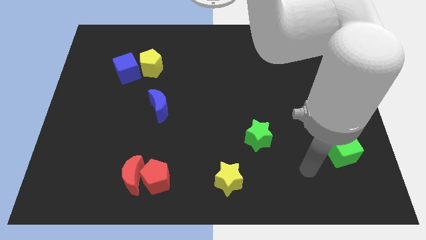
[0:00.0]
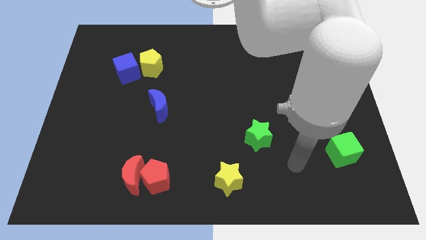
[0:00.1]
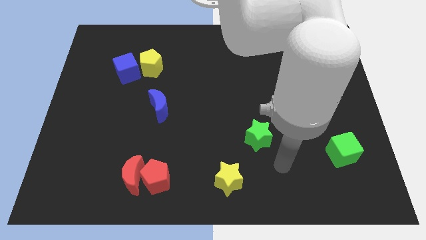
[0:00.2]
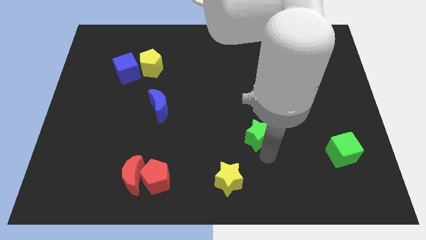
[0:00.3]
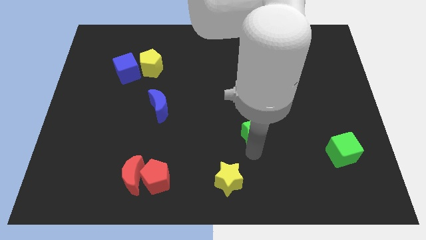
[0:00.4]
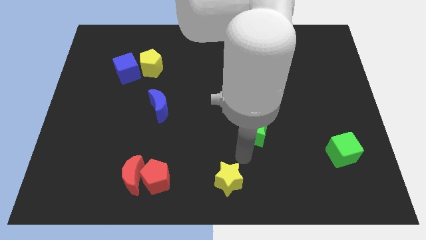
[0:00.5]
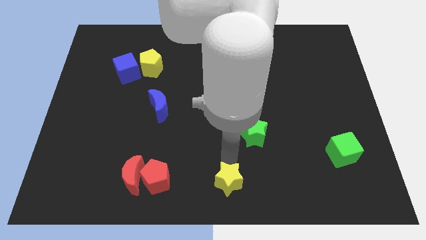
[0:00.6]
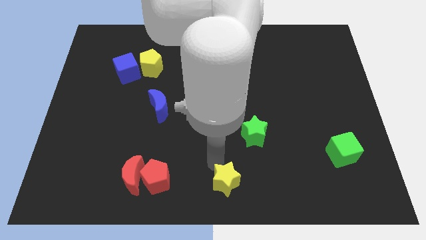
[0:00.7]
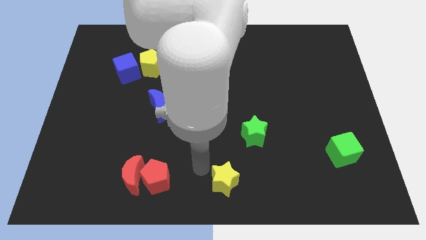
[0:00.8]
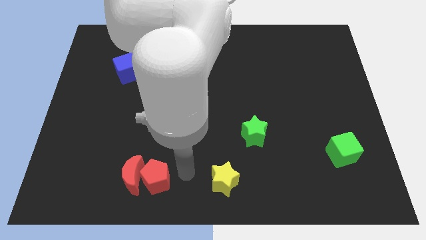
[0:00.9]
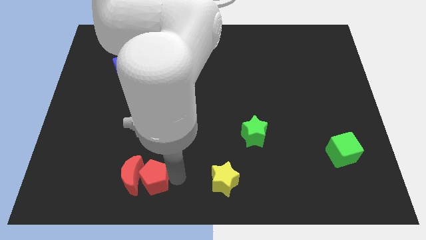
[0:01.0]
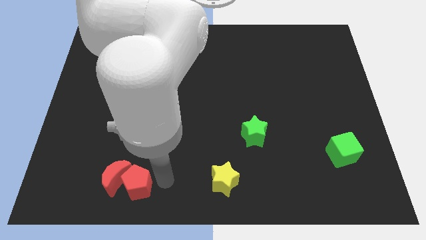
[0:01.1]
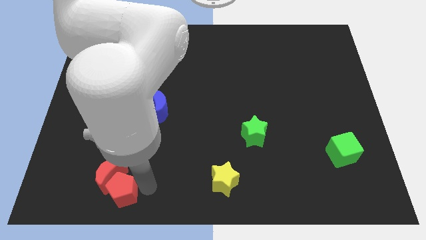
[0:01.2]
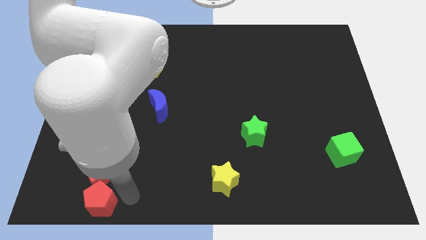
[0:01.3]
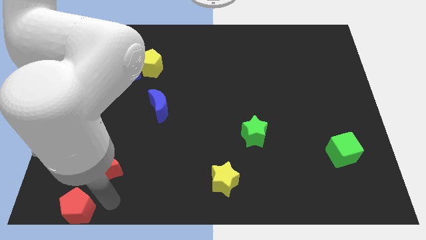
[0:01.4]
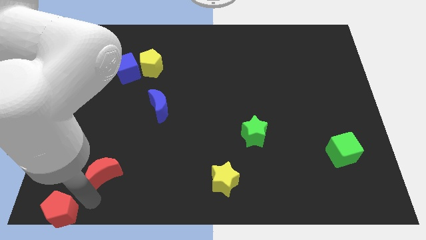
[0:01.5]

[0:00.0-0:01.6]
separate the red moon from the red pentagon

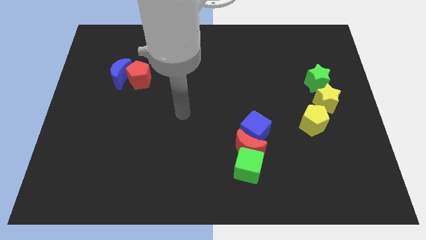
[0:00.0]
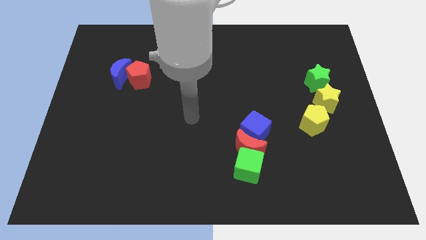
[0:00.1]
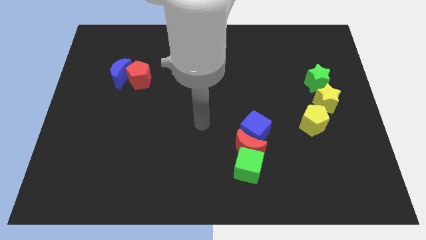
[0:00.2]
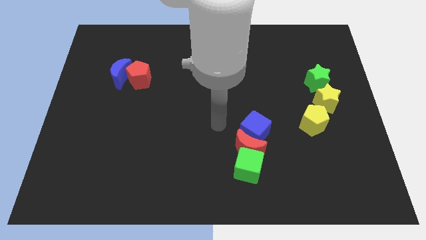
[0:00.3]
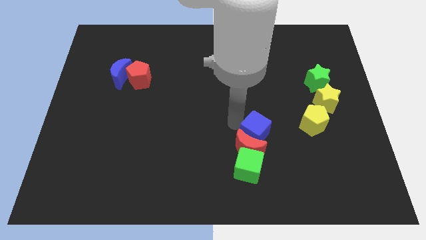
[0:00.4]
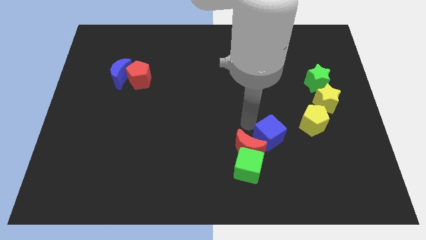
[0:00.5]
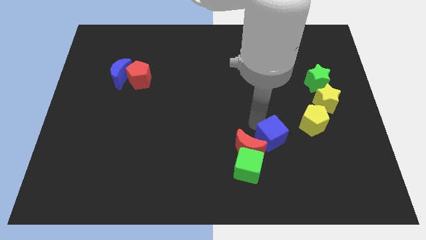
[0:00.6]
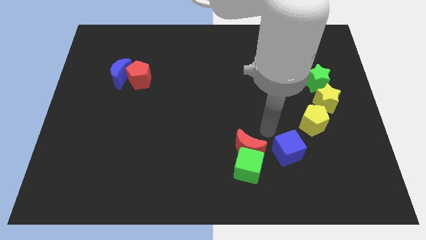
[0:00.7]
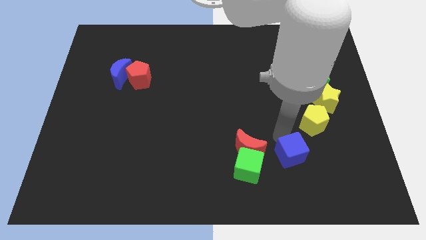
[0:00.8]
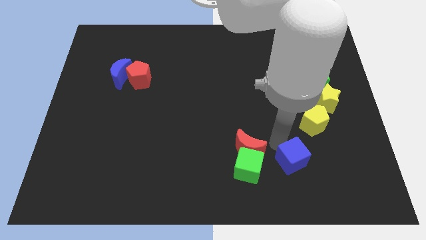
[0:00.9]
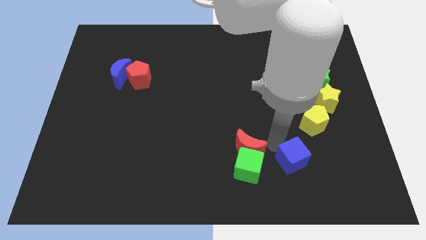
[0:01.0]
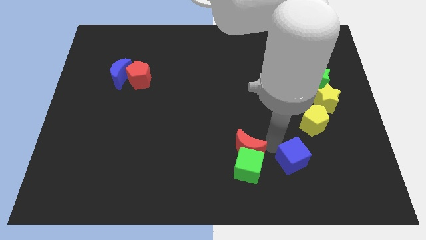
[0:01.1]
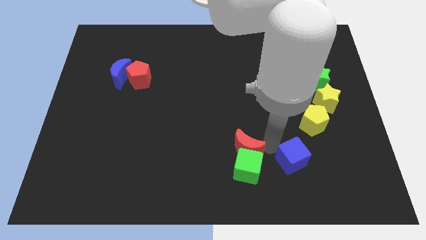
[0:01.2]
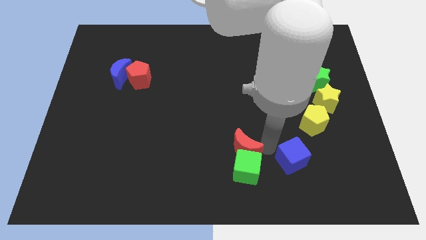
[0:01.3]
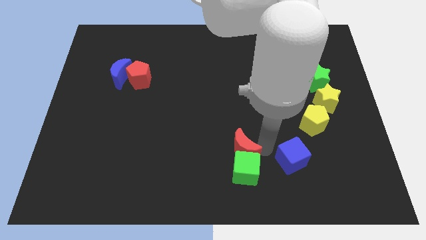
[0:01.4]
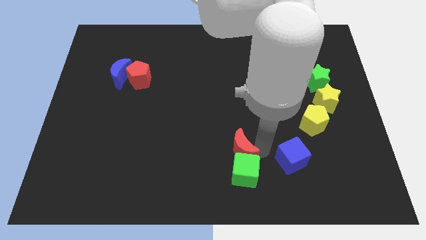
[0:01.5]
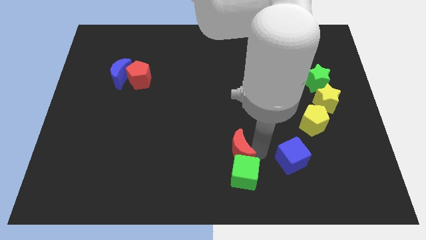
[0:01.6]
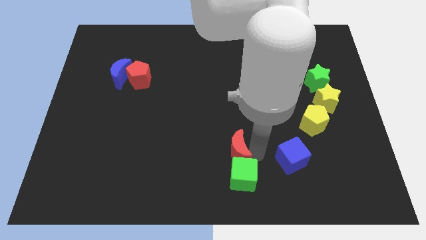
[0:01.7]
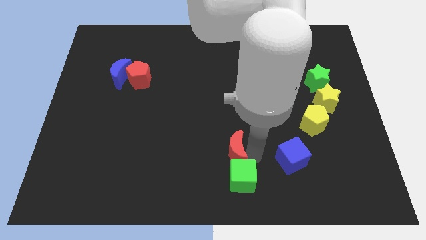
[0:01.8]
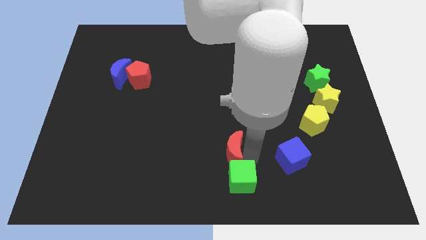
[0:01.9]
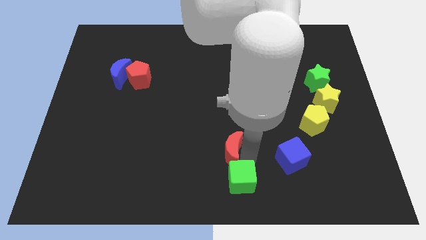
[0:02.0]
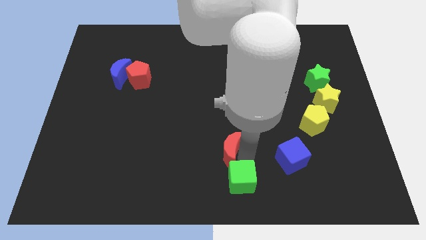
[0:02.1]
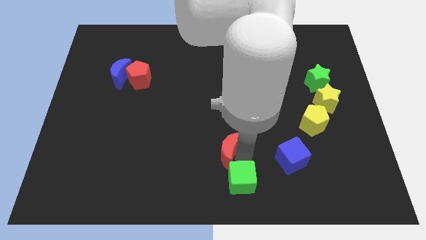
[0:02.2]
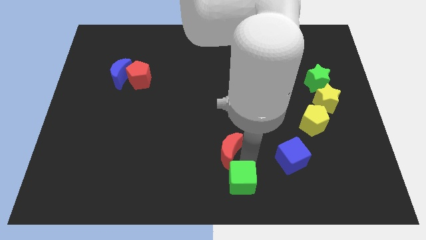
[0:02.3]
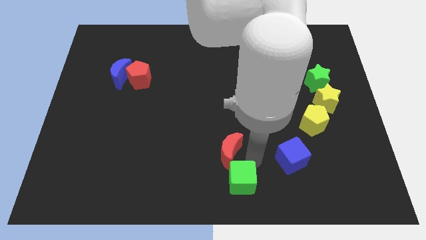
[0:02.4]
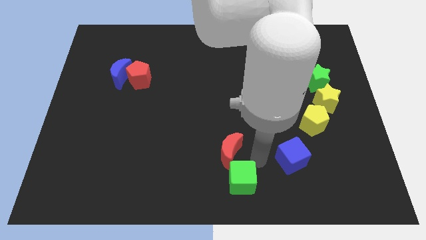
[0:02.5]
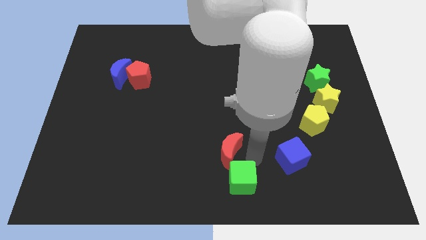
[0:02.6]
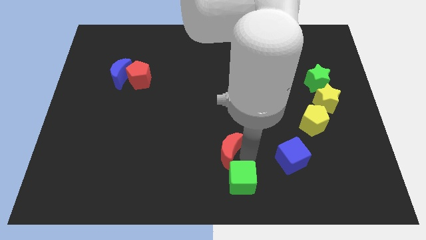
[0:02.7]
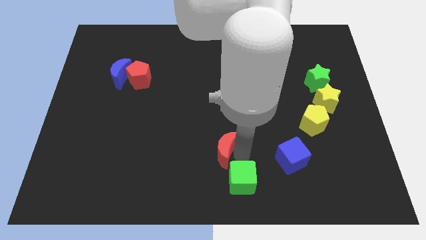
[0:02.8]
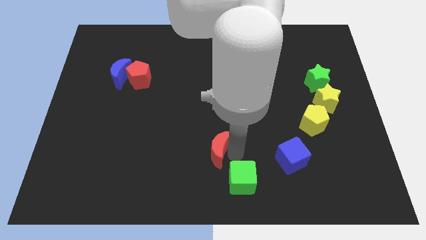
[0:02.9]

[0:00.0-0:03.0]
move the red moon away from the green cube and blue cube

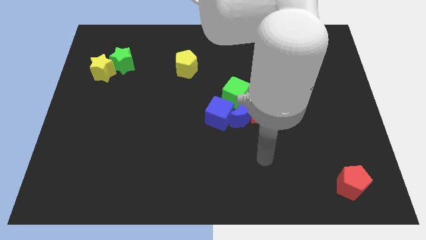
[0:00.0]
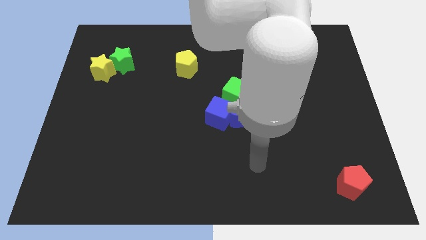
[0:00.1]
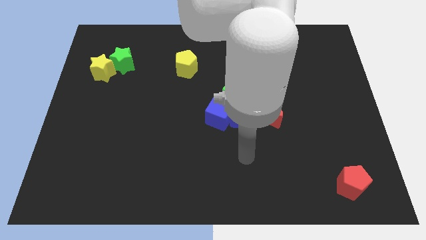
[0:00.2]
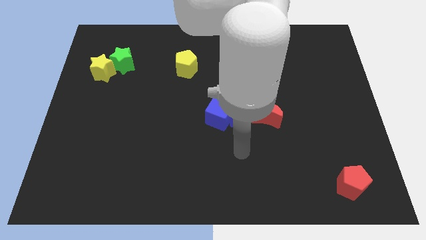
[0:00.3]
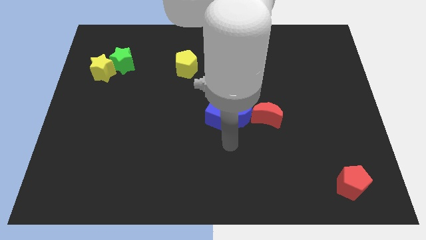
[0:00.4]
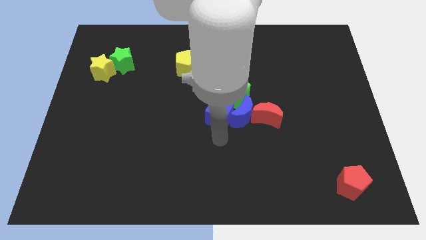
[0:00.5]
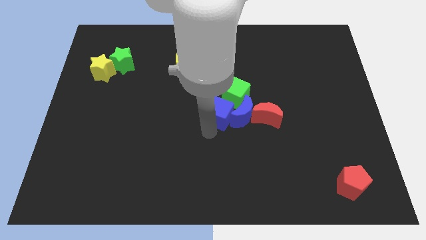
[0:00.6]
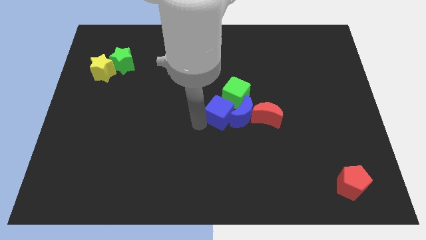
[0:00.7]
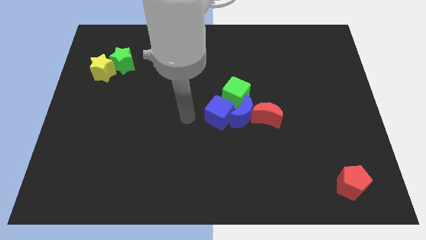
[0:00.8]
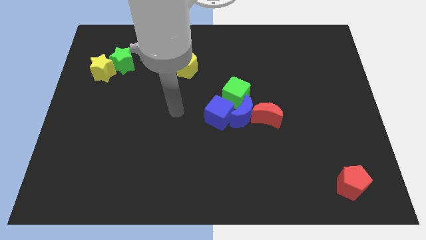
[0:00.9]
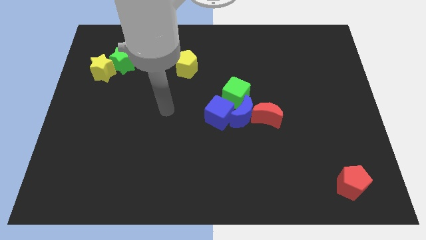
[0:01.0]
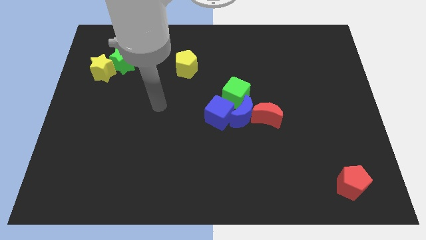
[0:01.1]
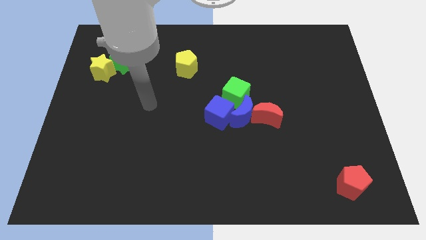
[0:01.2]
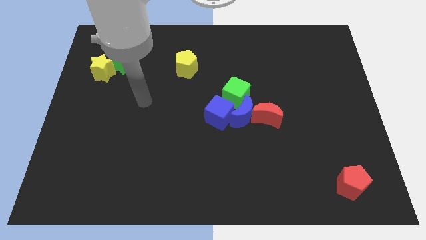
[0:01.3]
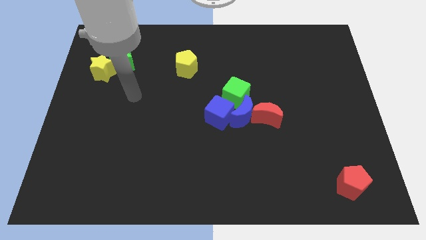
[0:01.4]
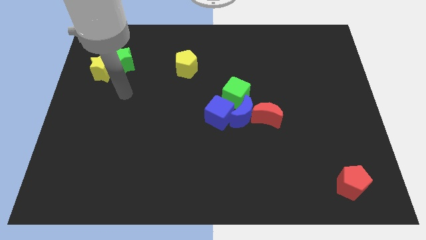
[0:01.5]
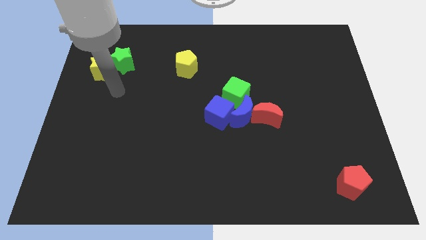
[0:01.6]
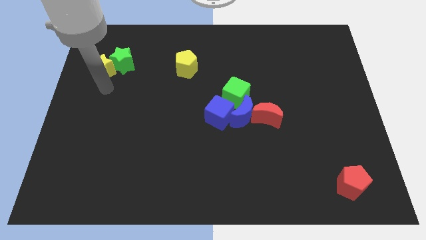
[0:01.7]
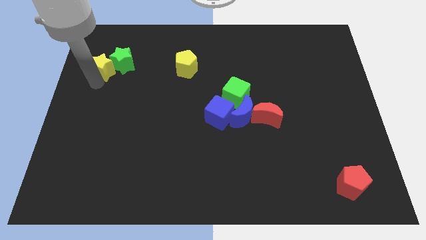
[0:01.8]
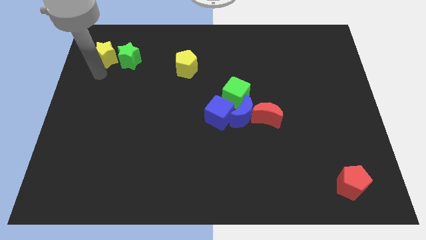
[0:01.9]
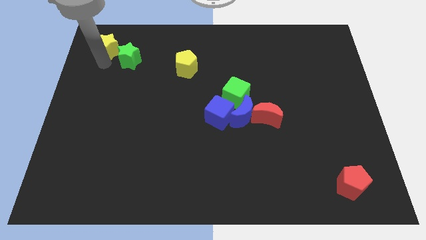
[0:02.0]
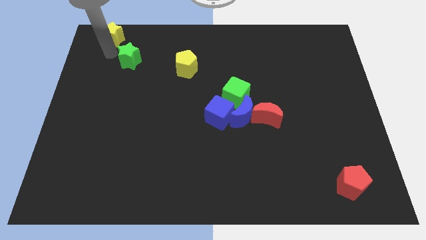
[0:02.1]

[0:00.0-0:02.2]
move the green star away from the yellow star

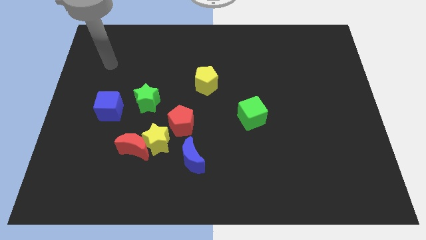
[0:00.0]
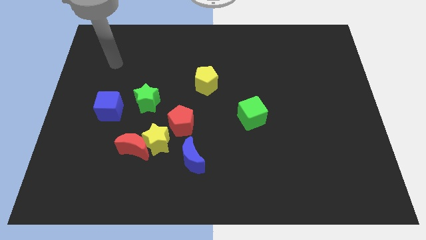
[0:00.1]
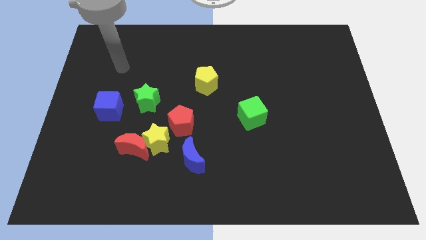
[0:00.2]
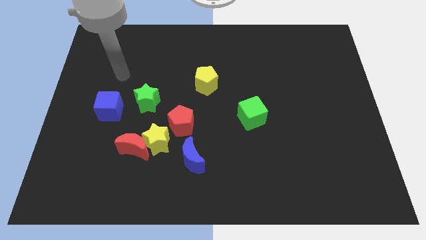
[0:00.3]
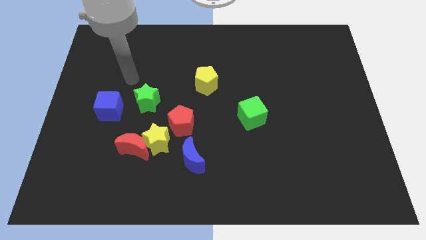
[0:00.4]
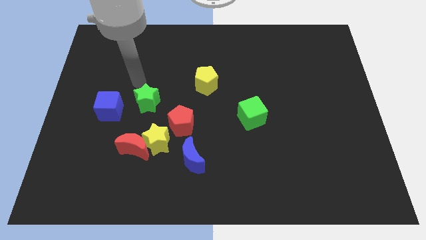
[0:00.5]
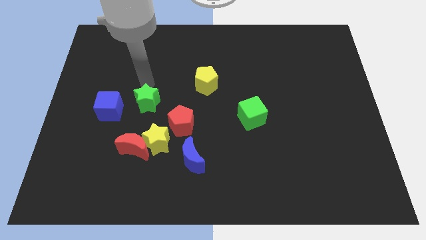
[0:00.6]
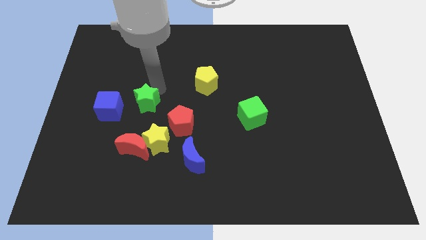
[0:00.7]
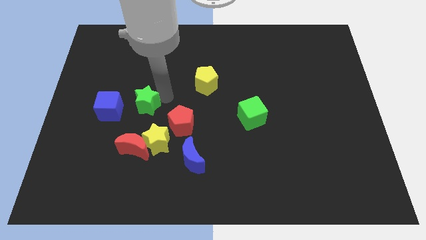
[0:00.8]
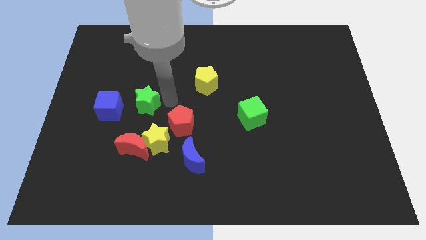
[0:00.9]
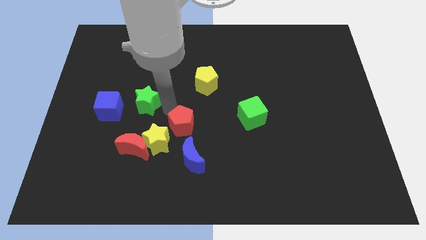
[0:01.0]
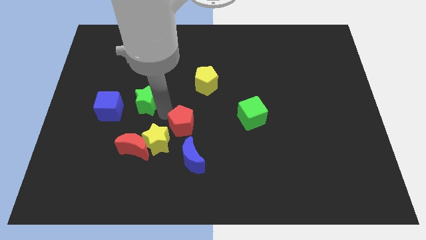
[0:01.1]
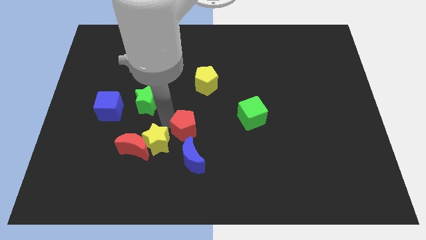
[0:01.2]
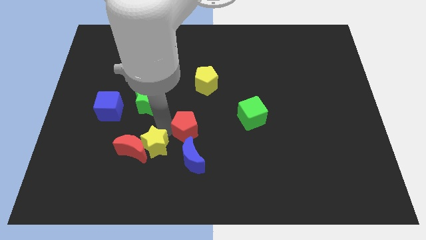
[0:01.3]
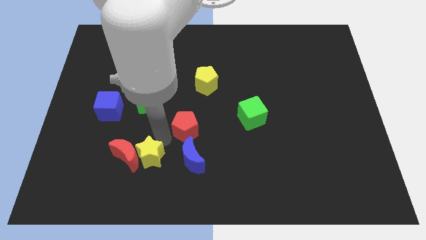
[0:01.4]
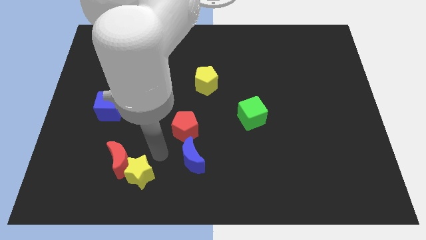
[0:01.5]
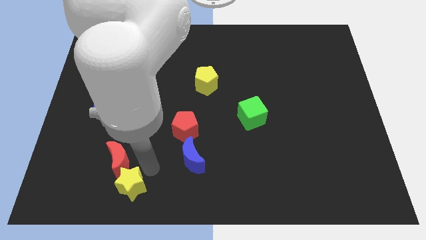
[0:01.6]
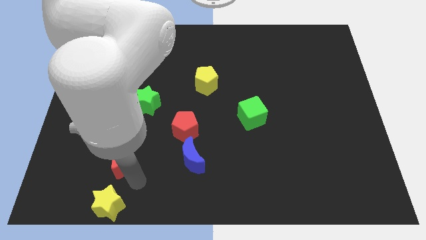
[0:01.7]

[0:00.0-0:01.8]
pull the red moon apart from the yellow star

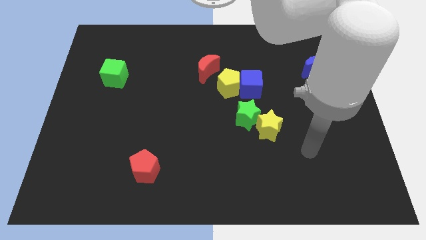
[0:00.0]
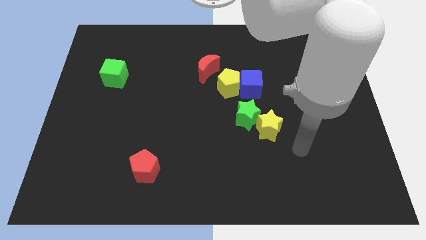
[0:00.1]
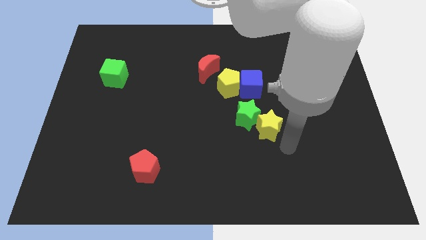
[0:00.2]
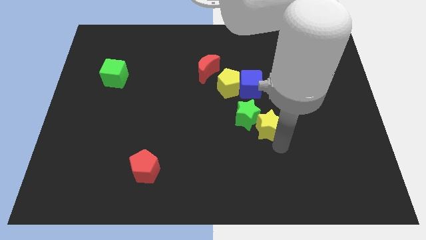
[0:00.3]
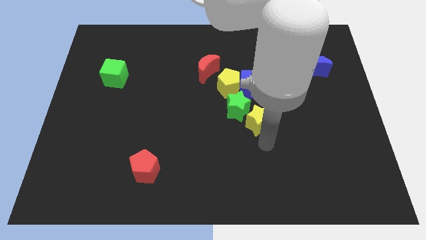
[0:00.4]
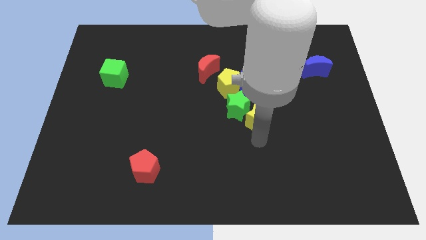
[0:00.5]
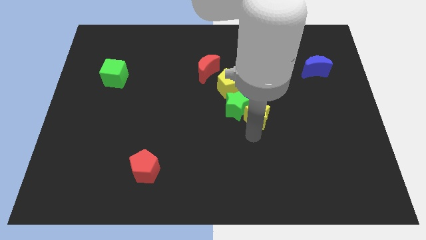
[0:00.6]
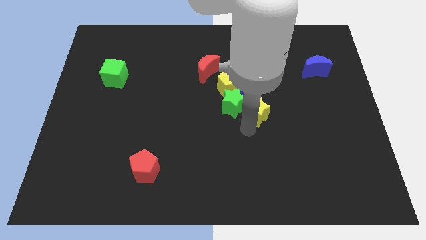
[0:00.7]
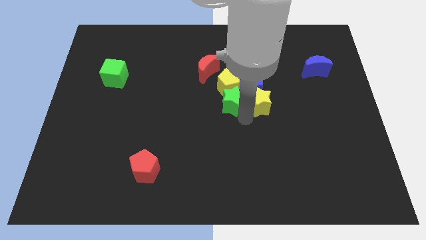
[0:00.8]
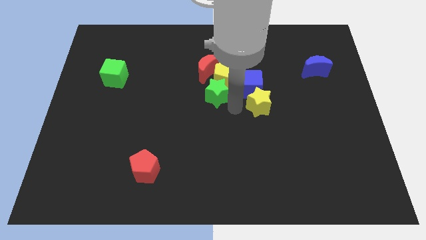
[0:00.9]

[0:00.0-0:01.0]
pull the yellow star apart from the green star
